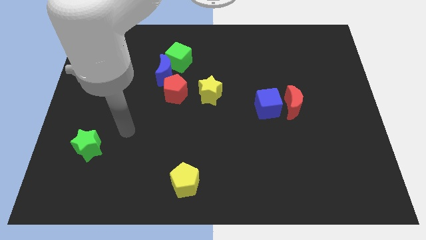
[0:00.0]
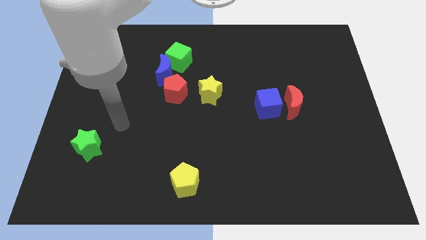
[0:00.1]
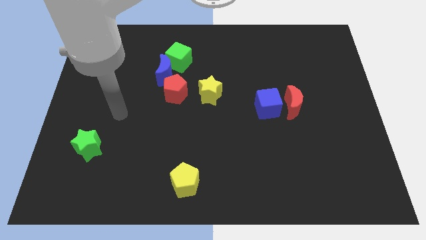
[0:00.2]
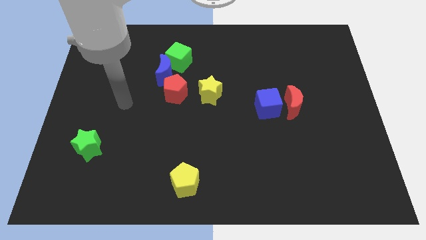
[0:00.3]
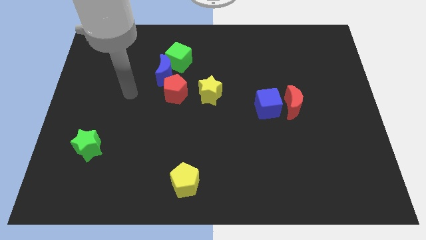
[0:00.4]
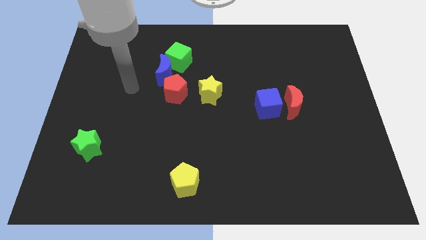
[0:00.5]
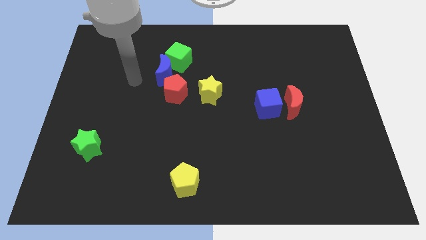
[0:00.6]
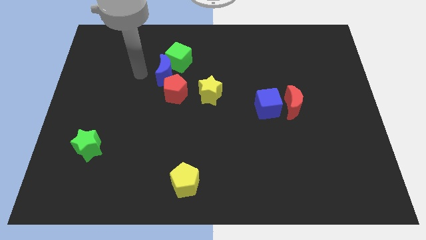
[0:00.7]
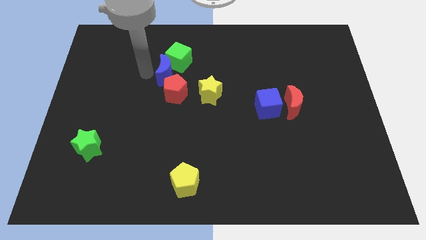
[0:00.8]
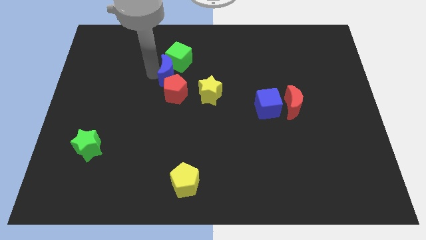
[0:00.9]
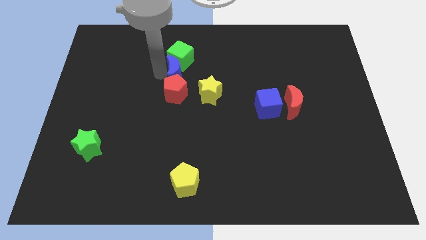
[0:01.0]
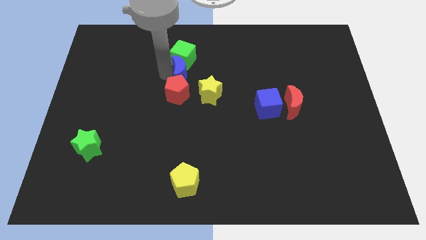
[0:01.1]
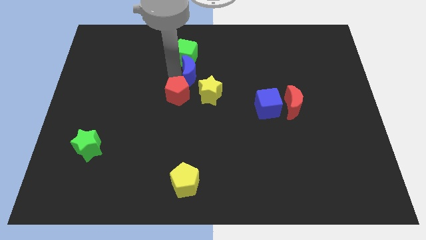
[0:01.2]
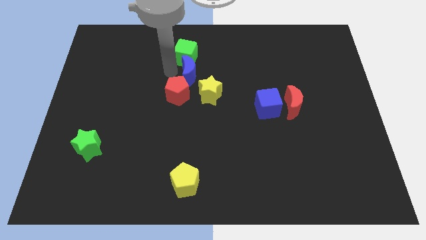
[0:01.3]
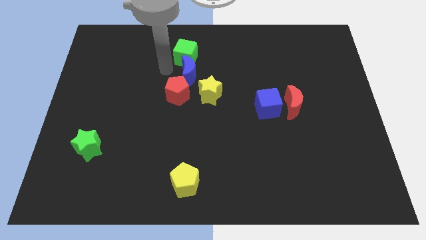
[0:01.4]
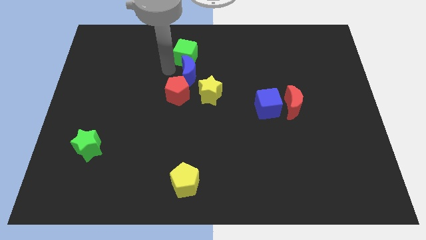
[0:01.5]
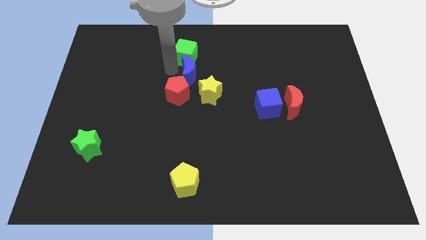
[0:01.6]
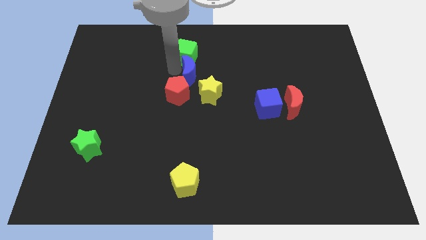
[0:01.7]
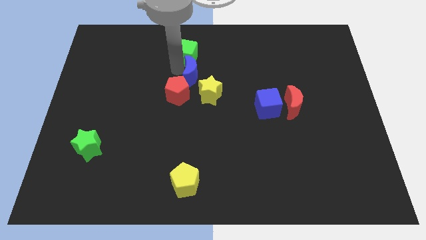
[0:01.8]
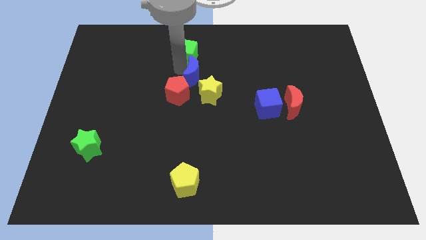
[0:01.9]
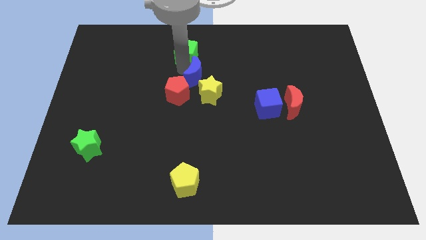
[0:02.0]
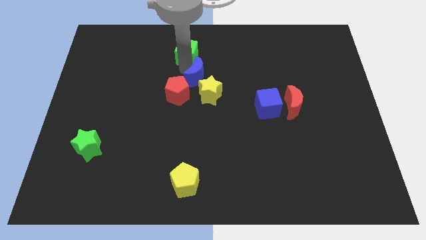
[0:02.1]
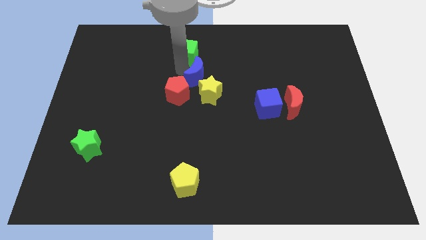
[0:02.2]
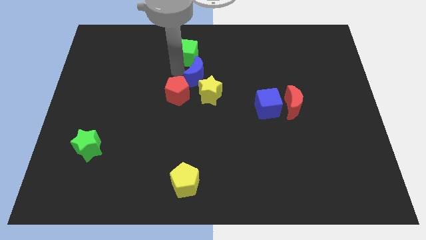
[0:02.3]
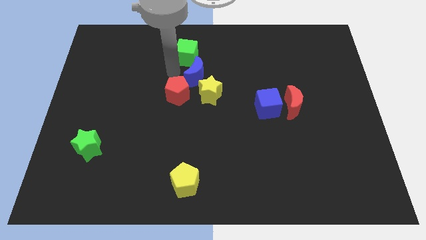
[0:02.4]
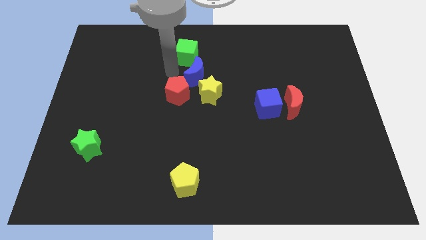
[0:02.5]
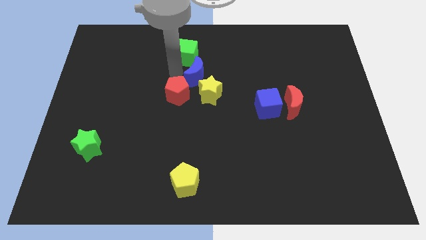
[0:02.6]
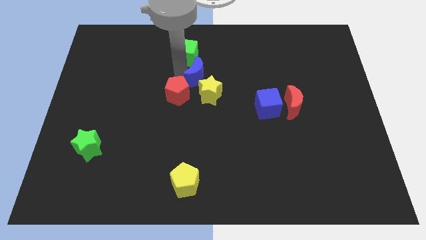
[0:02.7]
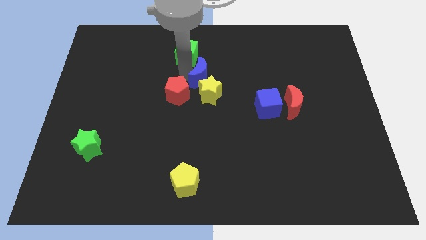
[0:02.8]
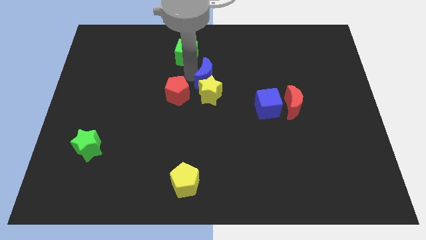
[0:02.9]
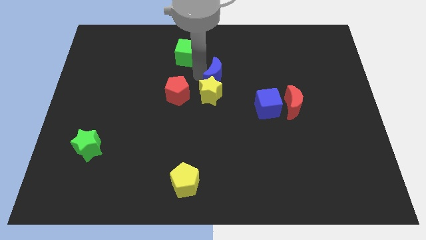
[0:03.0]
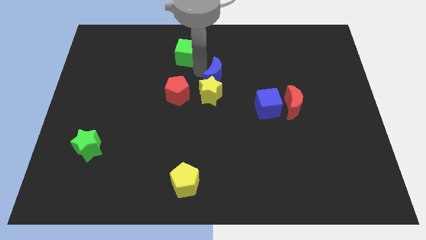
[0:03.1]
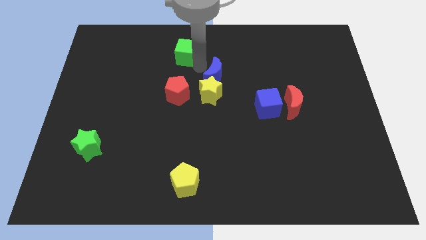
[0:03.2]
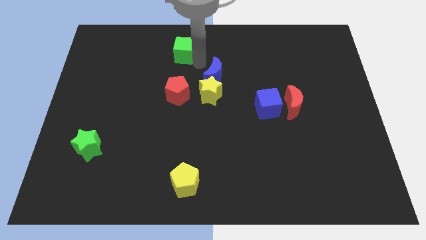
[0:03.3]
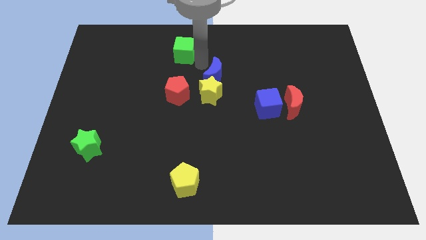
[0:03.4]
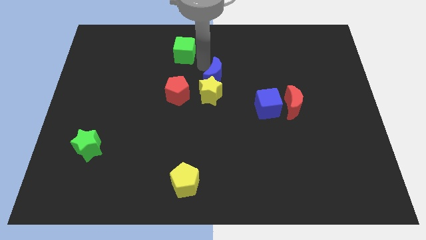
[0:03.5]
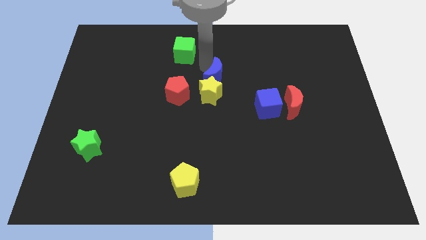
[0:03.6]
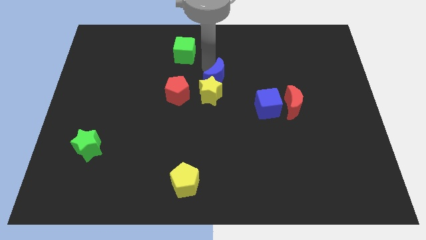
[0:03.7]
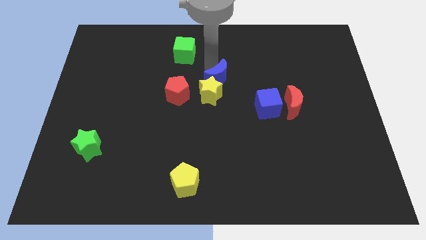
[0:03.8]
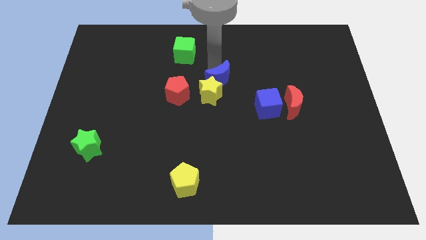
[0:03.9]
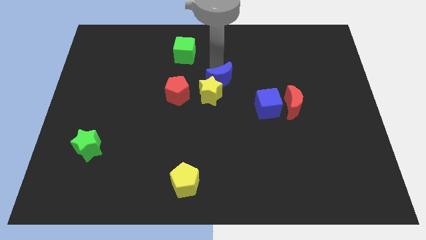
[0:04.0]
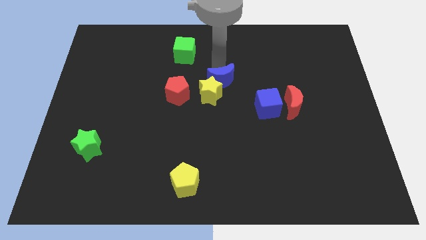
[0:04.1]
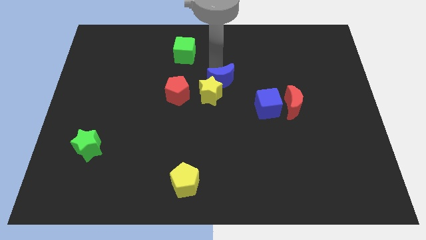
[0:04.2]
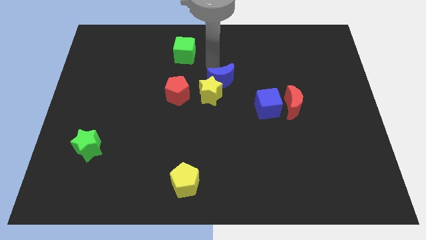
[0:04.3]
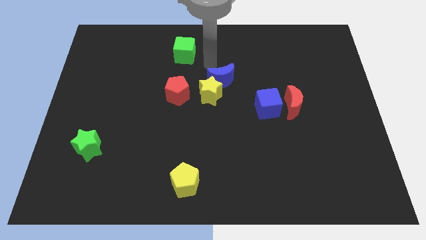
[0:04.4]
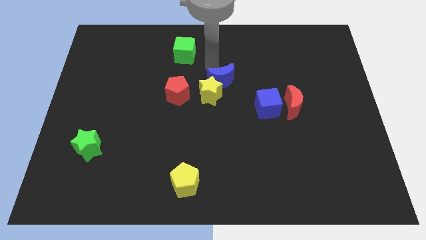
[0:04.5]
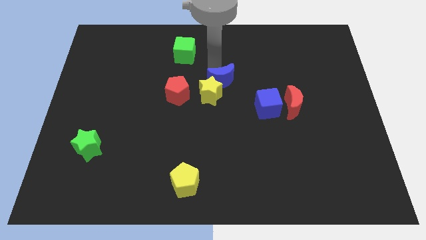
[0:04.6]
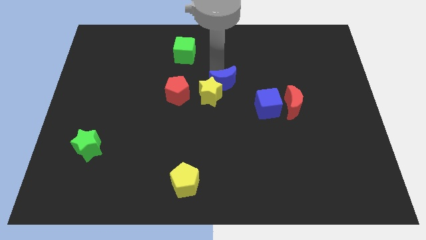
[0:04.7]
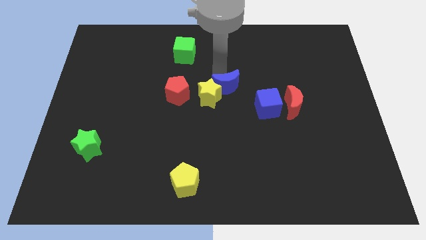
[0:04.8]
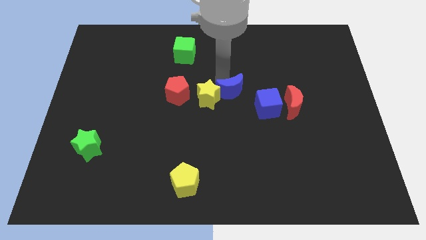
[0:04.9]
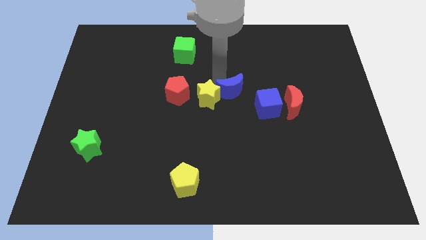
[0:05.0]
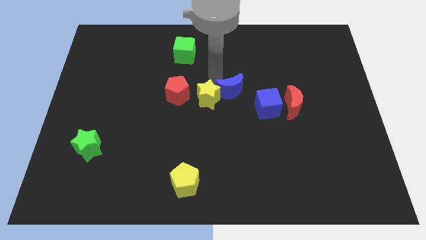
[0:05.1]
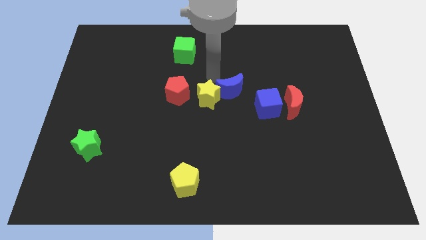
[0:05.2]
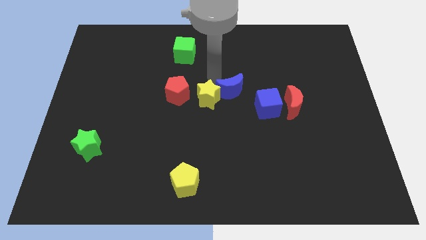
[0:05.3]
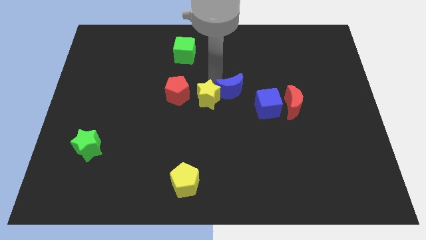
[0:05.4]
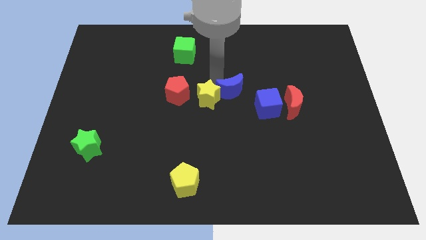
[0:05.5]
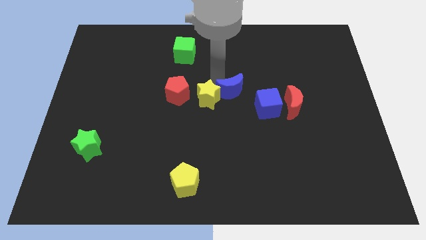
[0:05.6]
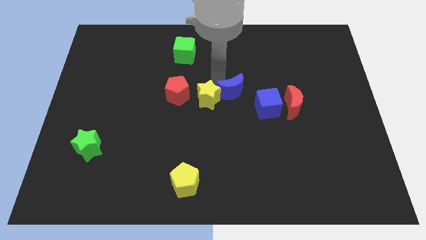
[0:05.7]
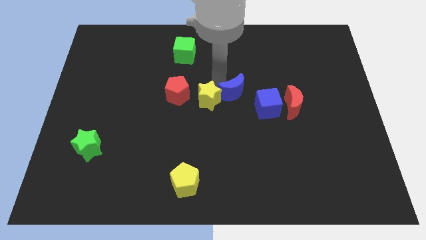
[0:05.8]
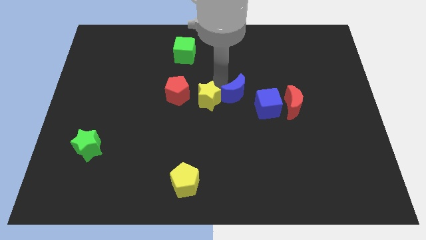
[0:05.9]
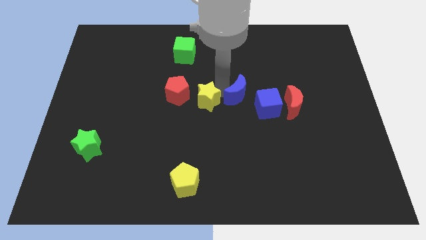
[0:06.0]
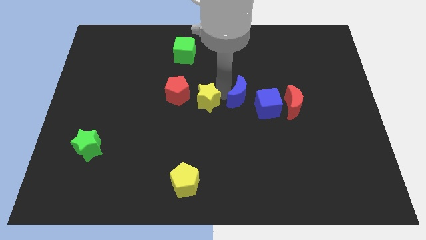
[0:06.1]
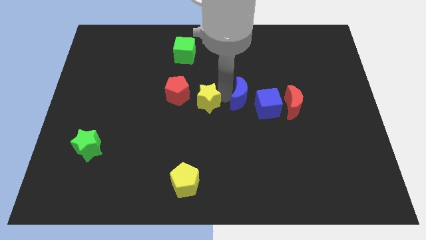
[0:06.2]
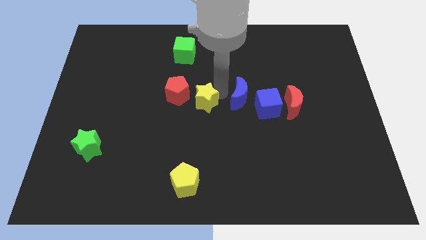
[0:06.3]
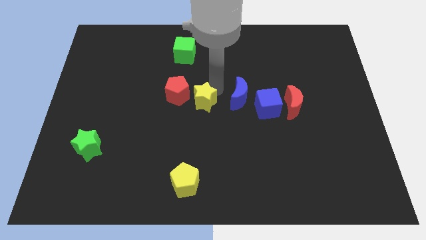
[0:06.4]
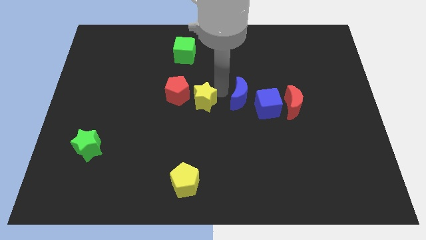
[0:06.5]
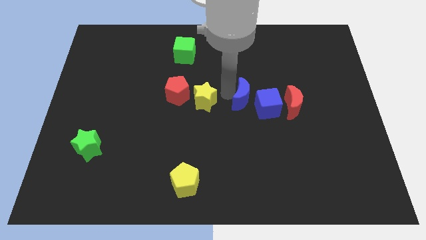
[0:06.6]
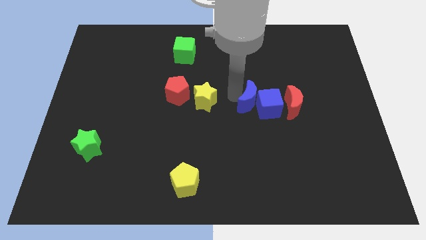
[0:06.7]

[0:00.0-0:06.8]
push the blue moon close to the blue cube

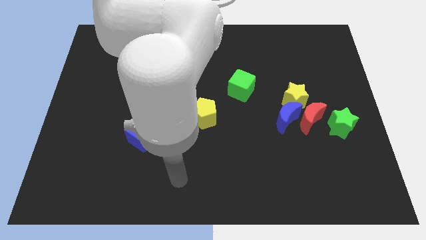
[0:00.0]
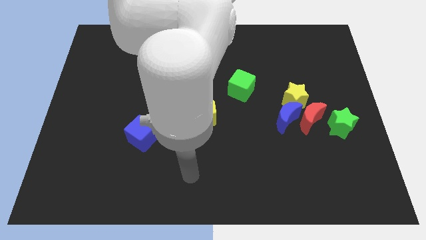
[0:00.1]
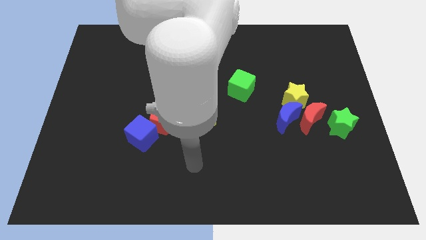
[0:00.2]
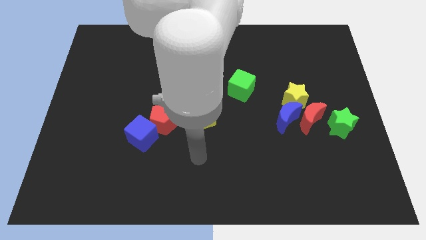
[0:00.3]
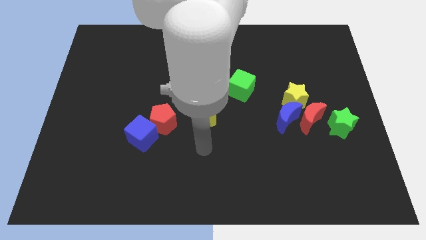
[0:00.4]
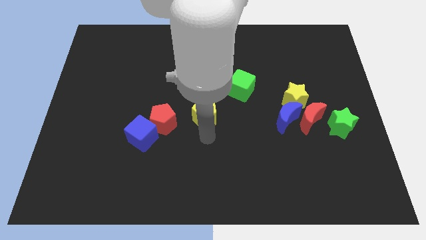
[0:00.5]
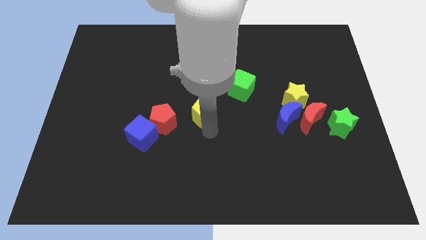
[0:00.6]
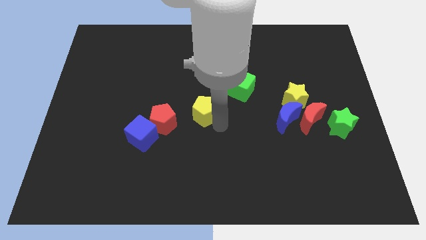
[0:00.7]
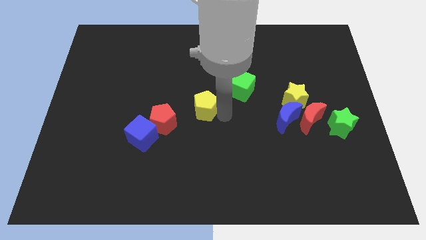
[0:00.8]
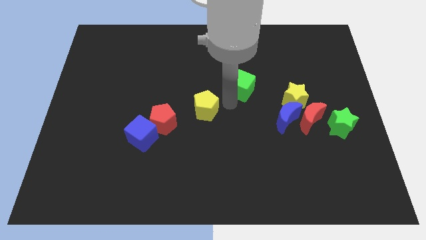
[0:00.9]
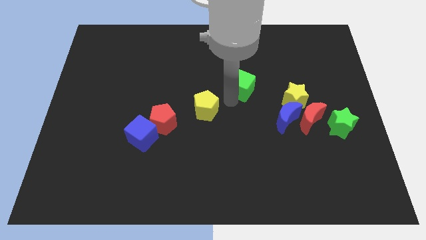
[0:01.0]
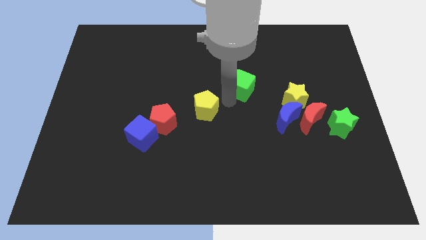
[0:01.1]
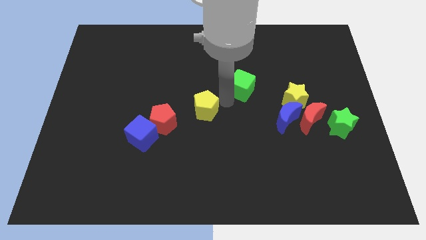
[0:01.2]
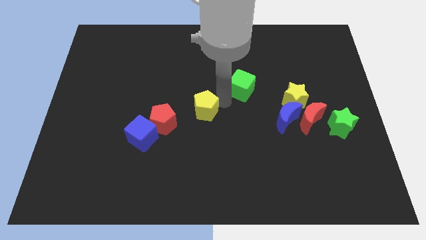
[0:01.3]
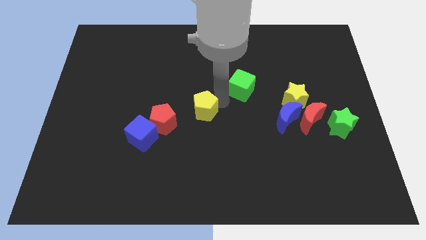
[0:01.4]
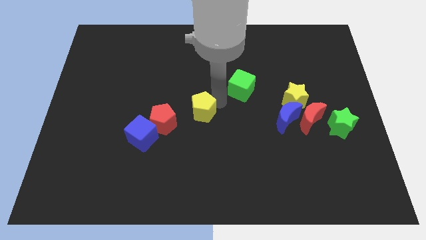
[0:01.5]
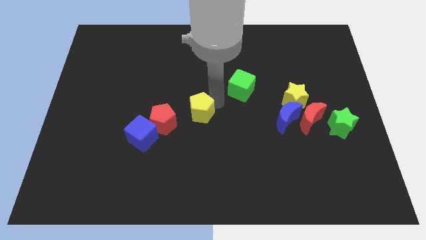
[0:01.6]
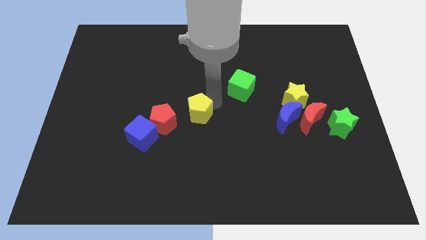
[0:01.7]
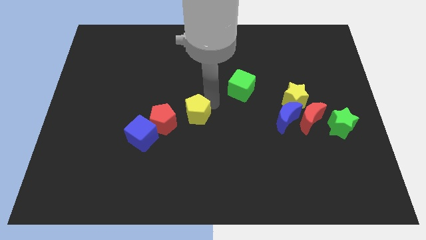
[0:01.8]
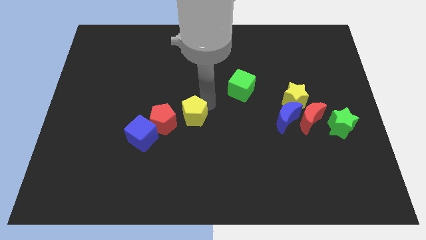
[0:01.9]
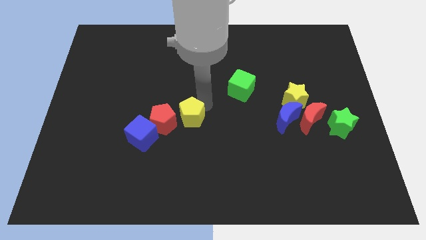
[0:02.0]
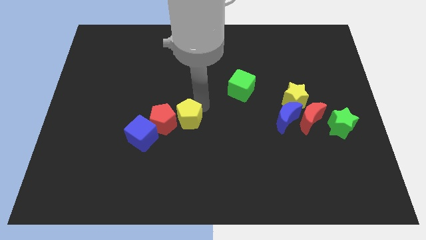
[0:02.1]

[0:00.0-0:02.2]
move the yellow pentagon next to the red pentagon
